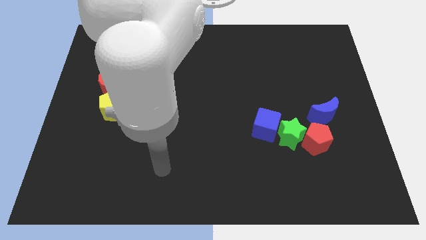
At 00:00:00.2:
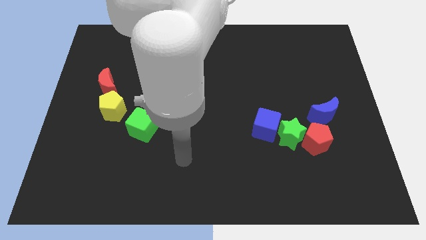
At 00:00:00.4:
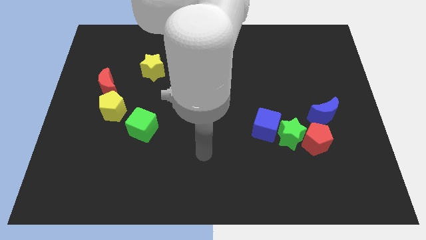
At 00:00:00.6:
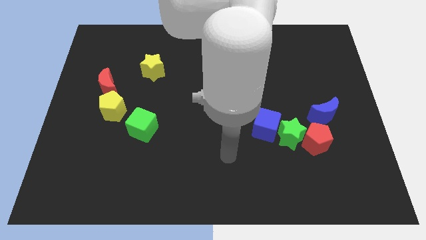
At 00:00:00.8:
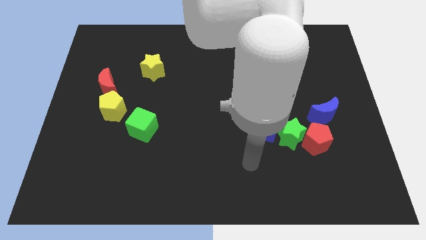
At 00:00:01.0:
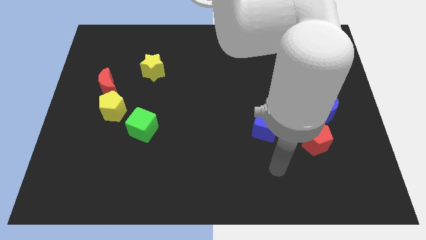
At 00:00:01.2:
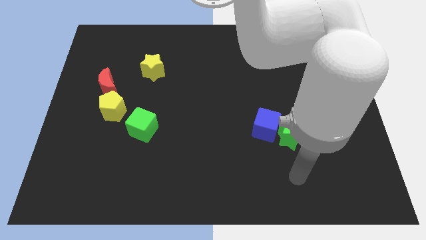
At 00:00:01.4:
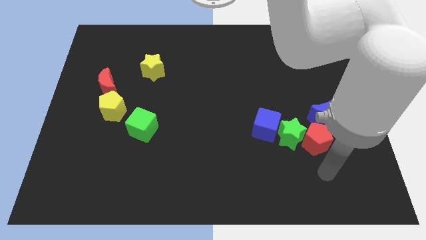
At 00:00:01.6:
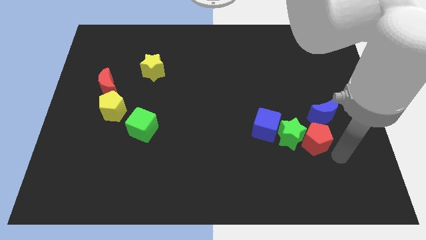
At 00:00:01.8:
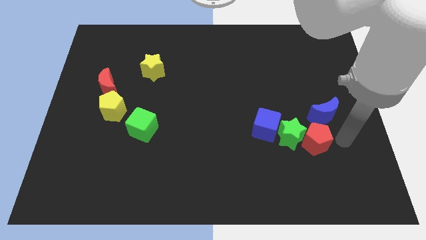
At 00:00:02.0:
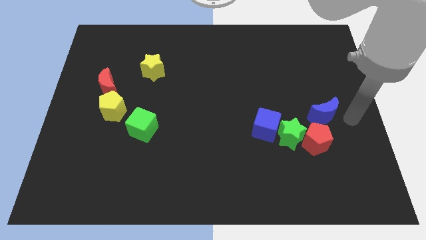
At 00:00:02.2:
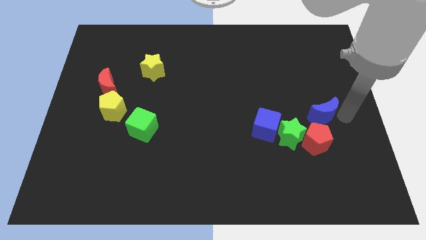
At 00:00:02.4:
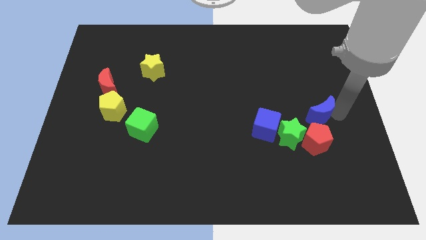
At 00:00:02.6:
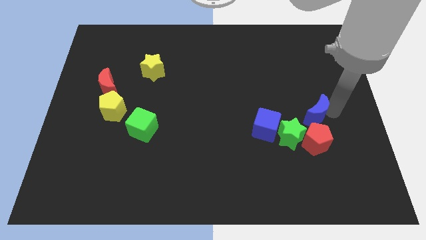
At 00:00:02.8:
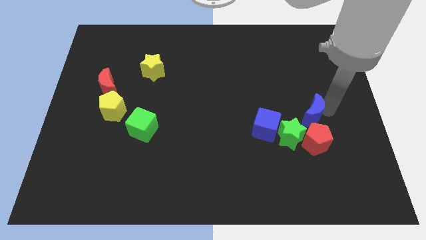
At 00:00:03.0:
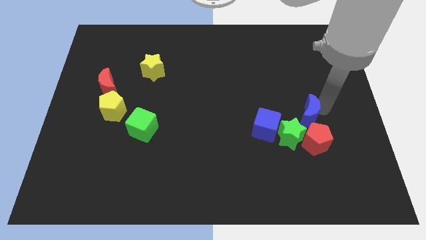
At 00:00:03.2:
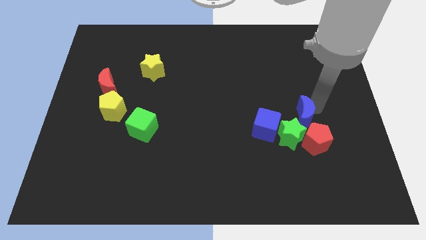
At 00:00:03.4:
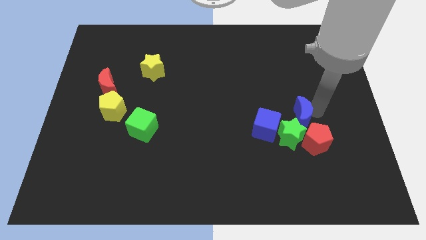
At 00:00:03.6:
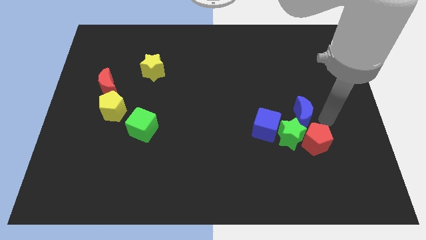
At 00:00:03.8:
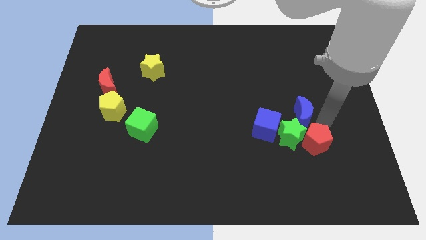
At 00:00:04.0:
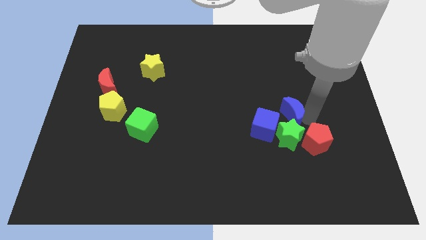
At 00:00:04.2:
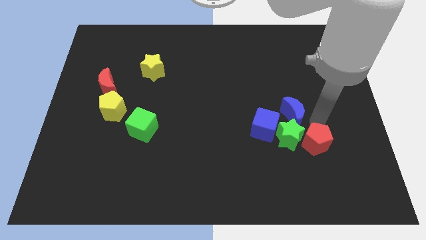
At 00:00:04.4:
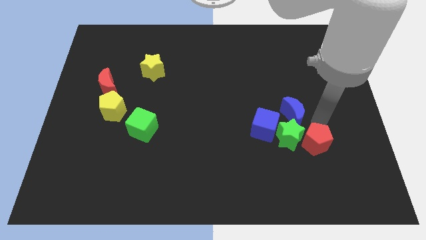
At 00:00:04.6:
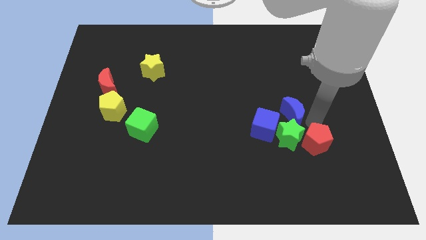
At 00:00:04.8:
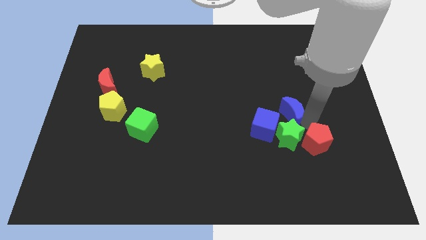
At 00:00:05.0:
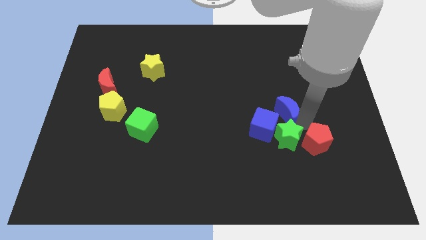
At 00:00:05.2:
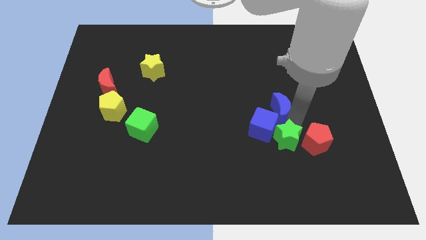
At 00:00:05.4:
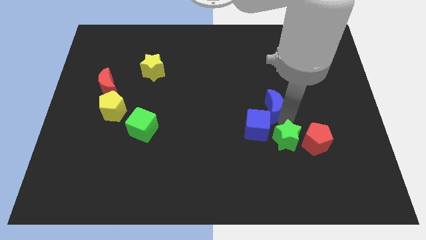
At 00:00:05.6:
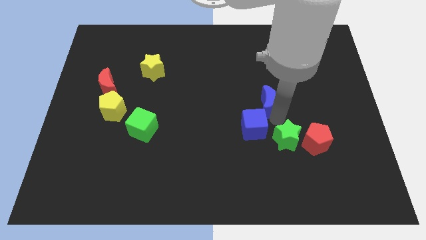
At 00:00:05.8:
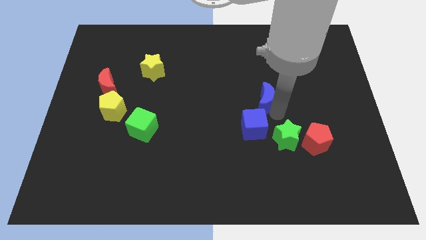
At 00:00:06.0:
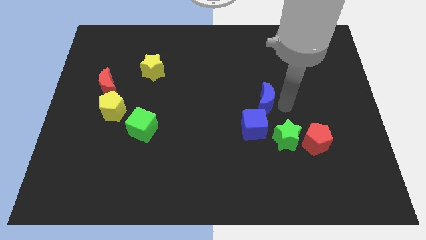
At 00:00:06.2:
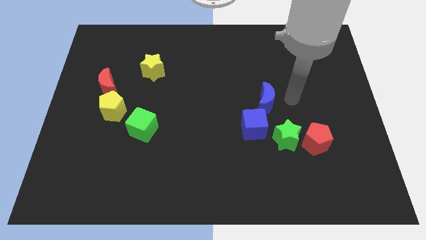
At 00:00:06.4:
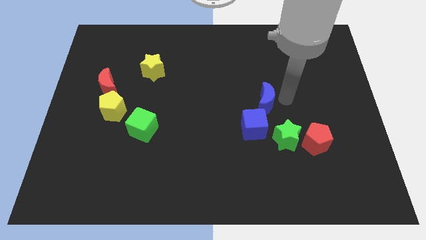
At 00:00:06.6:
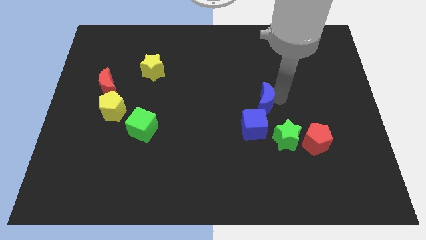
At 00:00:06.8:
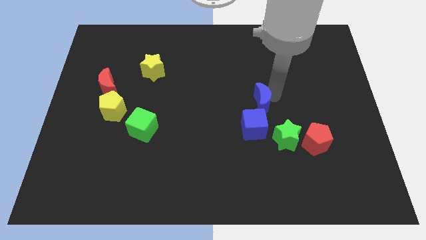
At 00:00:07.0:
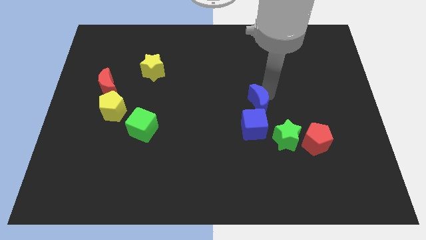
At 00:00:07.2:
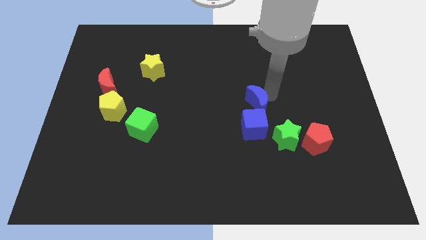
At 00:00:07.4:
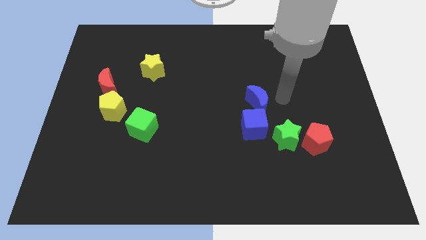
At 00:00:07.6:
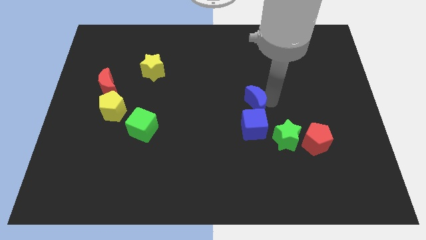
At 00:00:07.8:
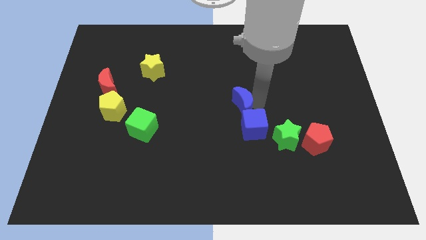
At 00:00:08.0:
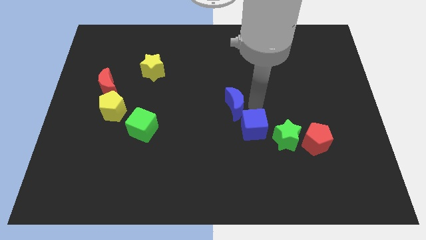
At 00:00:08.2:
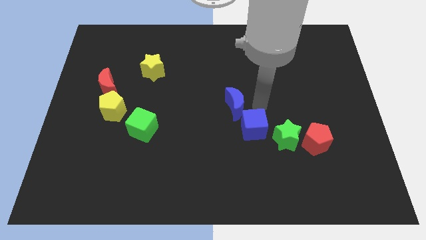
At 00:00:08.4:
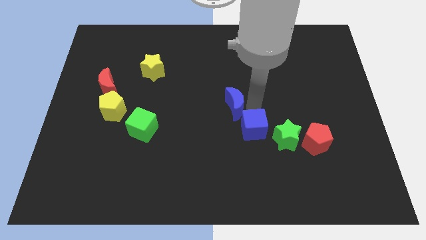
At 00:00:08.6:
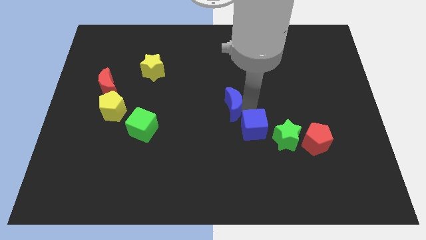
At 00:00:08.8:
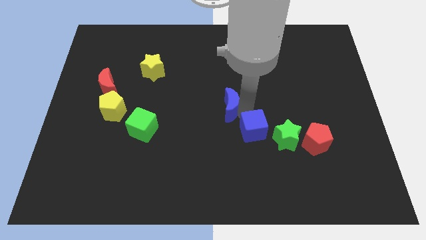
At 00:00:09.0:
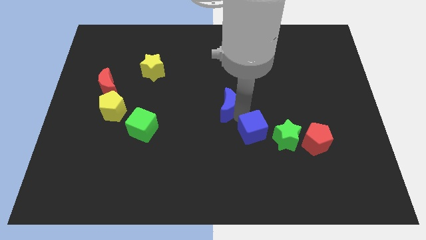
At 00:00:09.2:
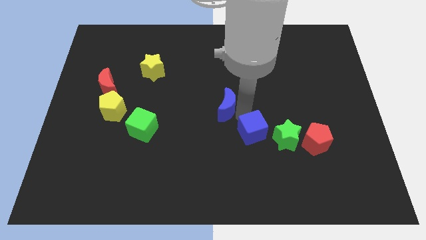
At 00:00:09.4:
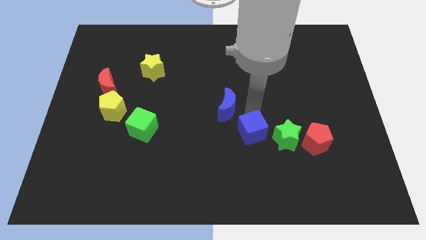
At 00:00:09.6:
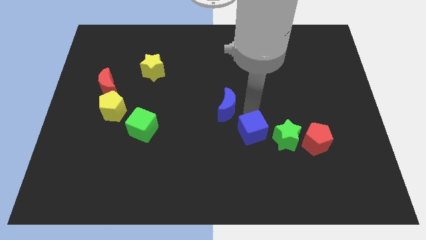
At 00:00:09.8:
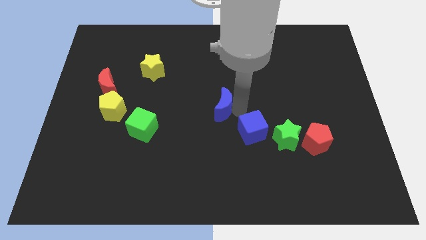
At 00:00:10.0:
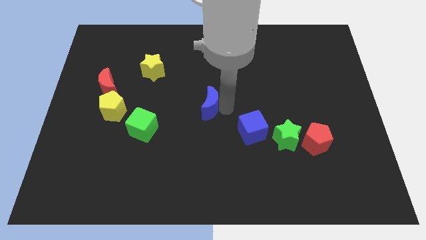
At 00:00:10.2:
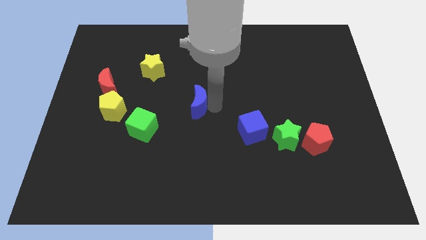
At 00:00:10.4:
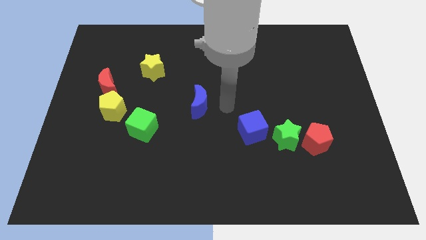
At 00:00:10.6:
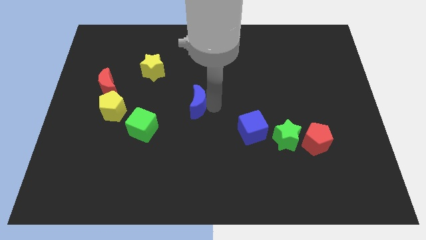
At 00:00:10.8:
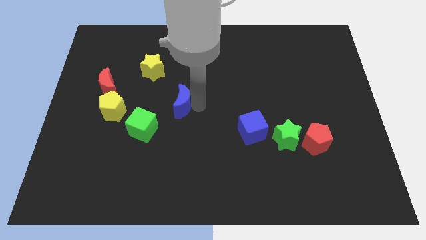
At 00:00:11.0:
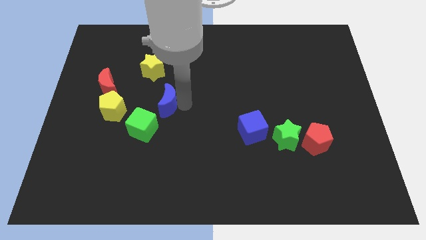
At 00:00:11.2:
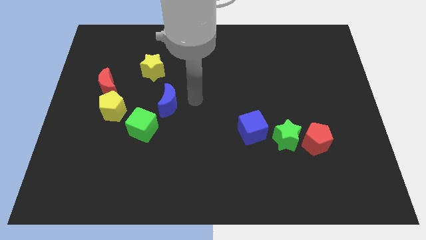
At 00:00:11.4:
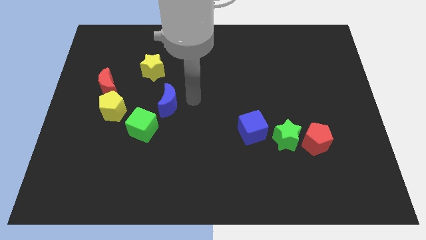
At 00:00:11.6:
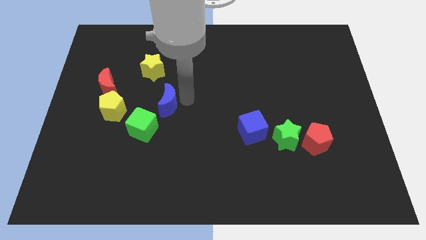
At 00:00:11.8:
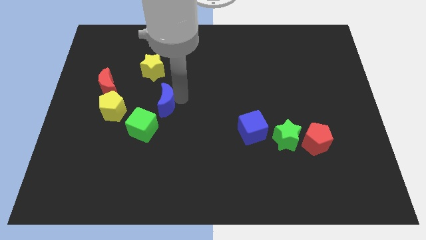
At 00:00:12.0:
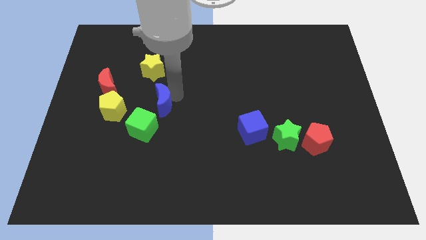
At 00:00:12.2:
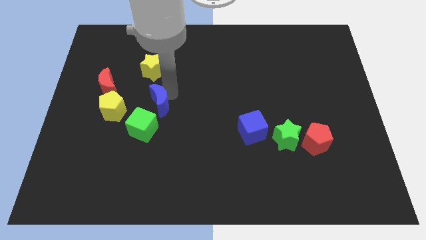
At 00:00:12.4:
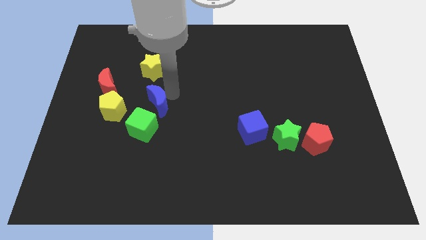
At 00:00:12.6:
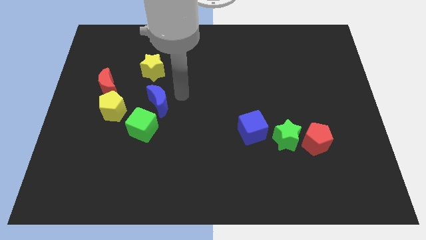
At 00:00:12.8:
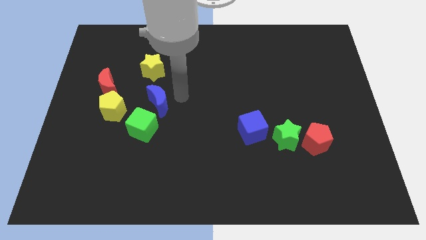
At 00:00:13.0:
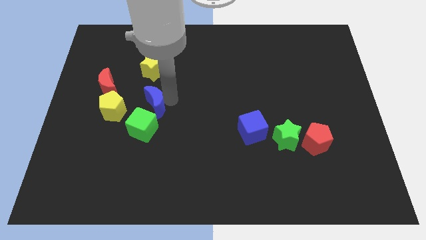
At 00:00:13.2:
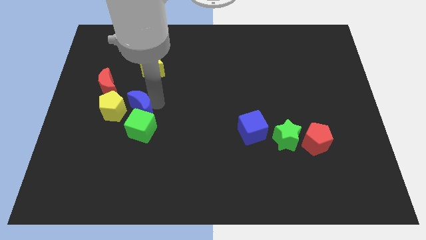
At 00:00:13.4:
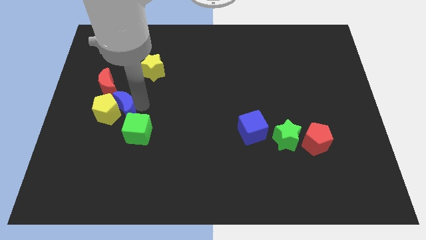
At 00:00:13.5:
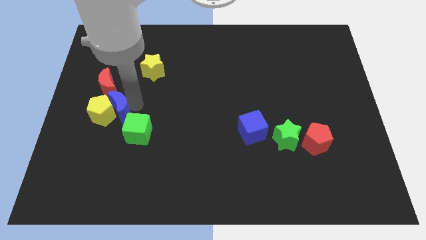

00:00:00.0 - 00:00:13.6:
push the blue moon to the bottom side of the red moon
